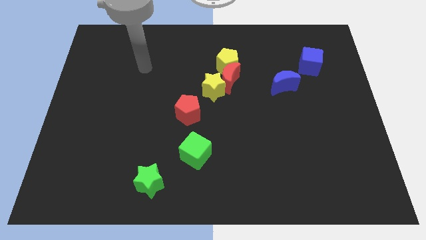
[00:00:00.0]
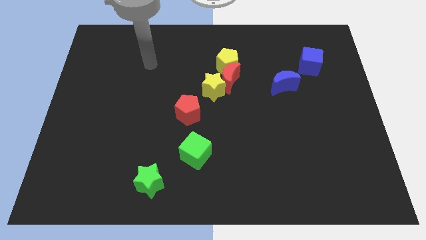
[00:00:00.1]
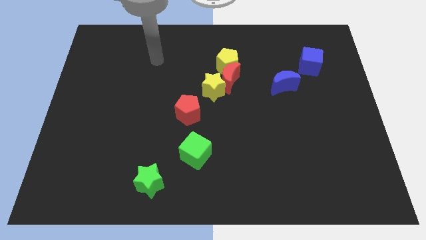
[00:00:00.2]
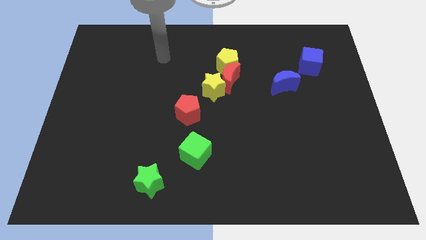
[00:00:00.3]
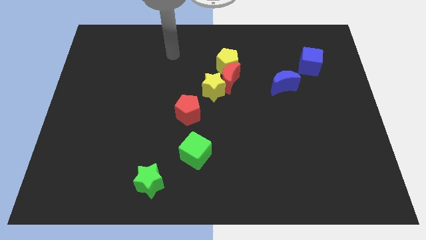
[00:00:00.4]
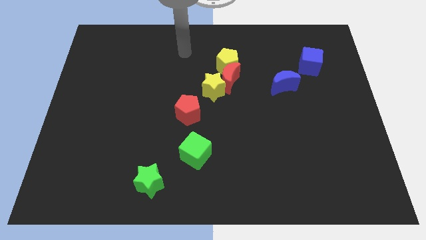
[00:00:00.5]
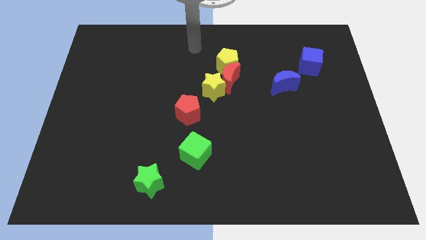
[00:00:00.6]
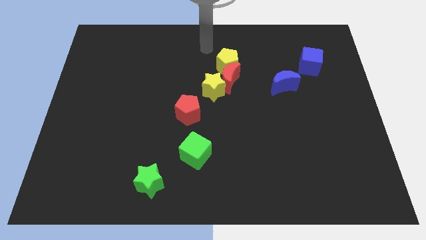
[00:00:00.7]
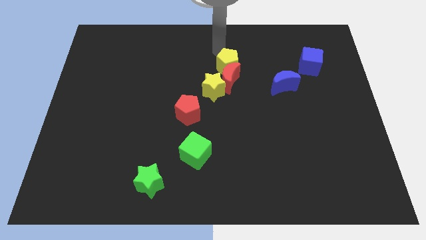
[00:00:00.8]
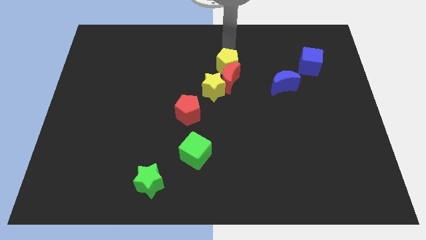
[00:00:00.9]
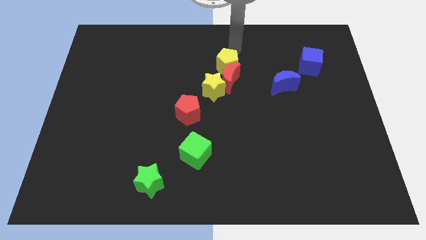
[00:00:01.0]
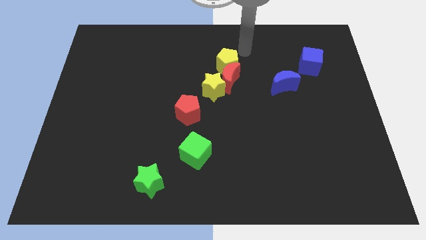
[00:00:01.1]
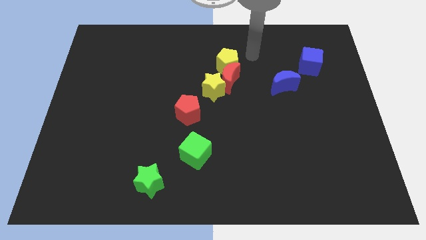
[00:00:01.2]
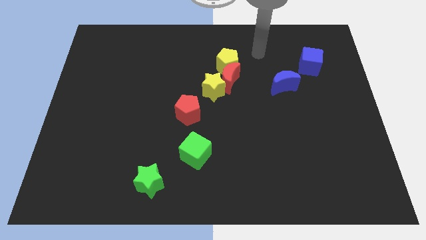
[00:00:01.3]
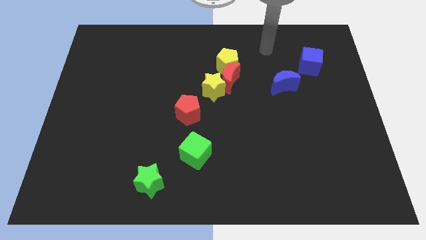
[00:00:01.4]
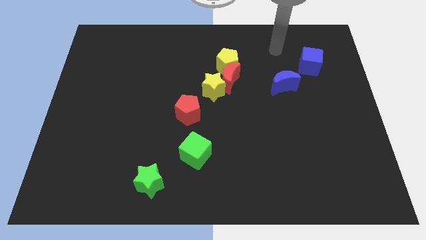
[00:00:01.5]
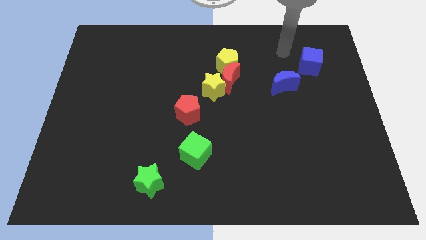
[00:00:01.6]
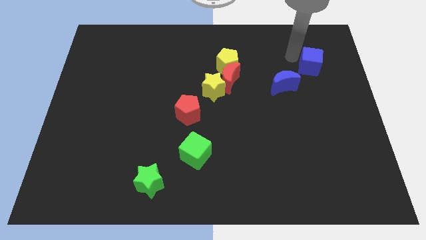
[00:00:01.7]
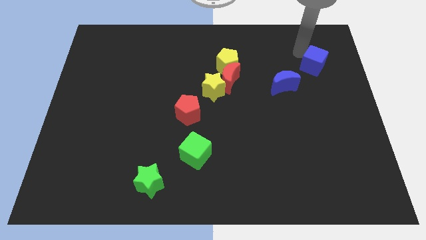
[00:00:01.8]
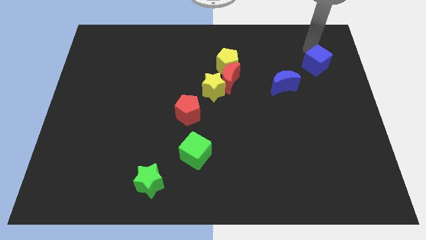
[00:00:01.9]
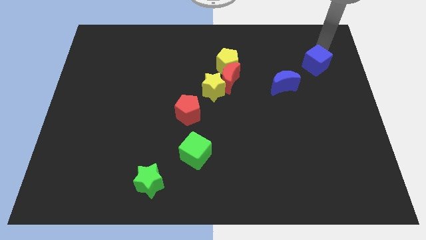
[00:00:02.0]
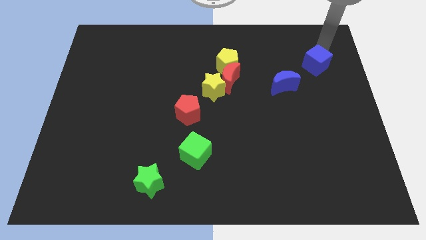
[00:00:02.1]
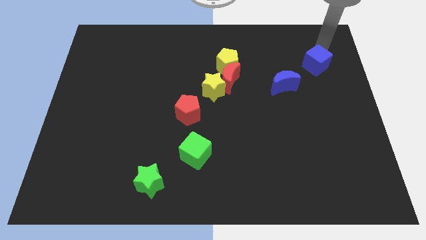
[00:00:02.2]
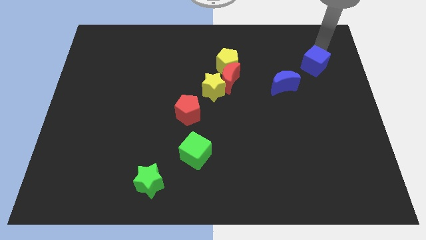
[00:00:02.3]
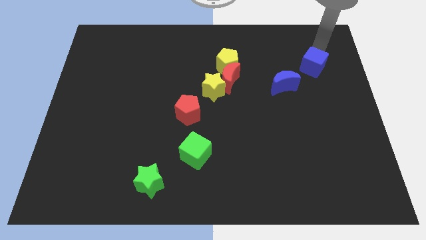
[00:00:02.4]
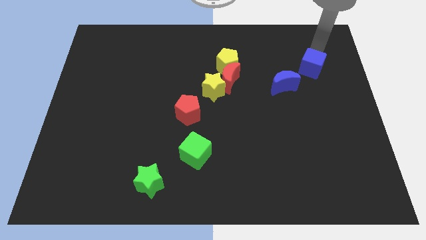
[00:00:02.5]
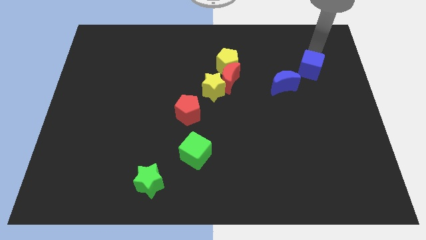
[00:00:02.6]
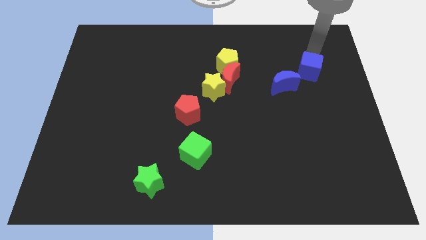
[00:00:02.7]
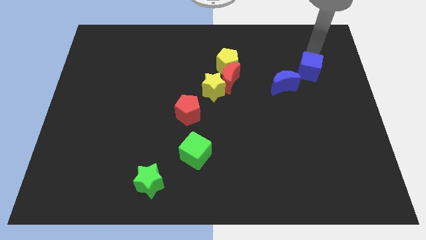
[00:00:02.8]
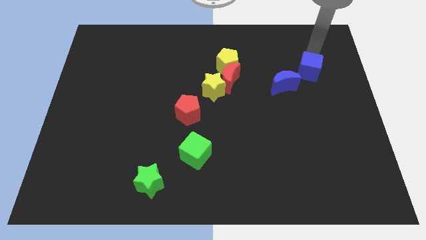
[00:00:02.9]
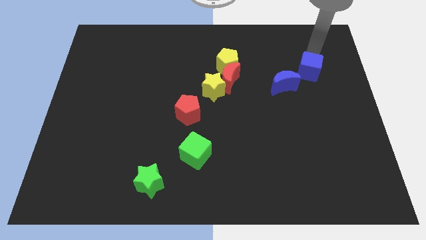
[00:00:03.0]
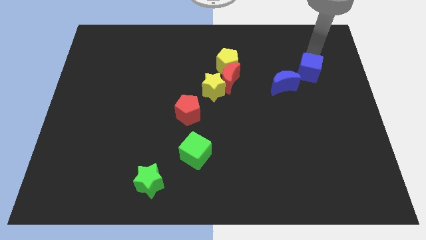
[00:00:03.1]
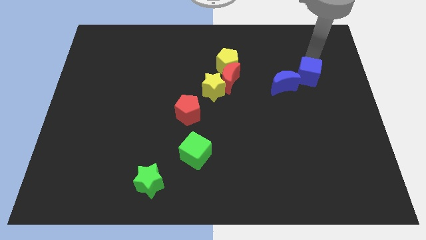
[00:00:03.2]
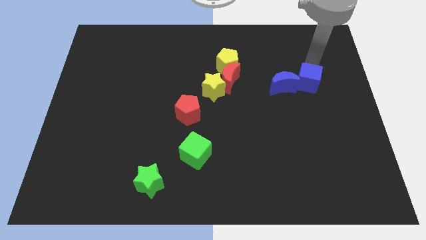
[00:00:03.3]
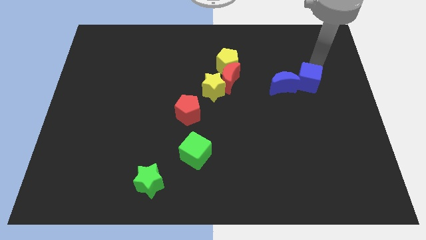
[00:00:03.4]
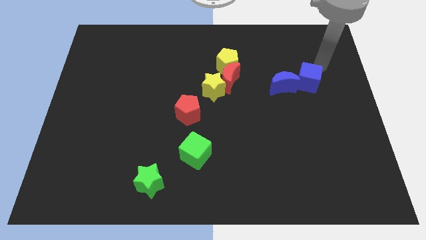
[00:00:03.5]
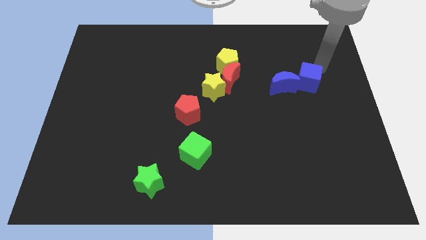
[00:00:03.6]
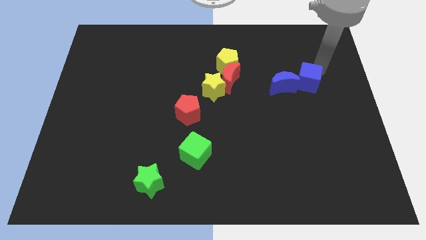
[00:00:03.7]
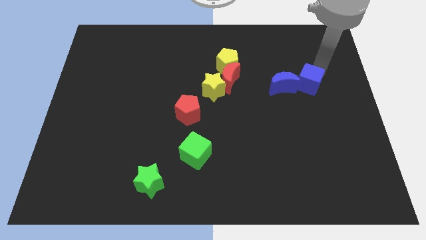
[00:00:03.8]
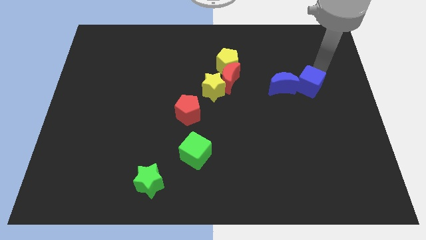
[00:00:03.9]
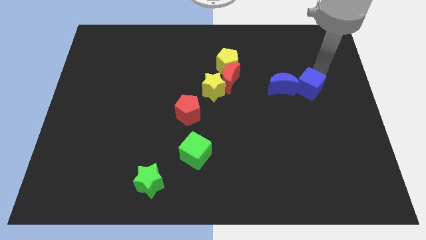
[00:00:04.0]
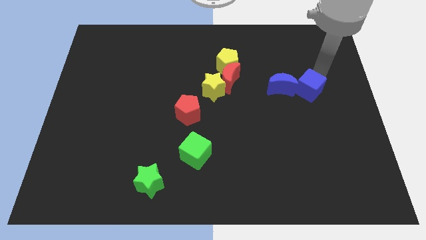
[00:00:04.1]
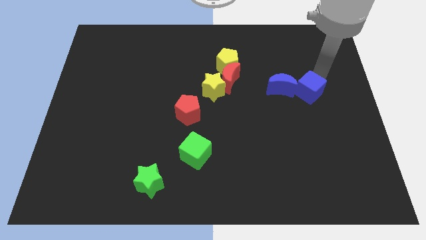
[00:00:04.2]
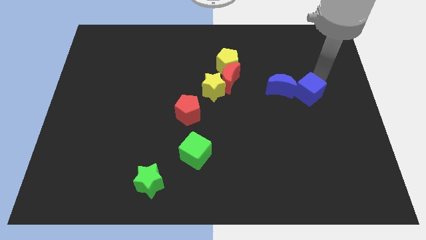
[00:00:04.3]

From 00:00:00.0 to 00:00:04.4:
move the blue cube somewhat down and then left

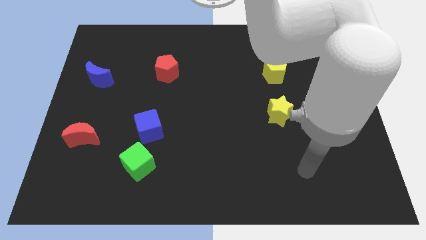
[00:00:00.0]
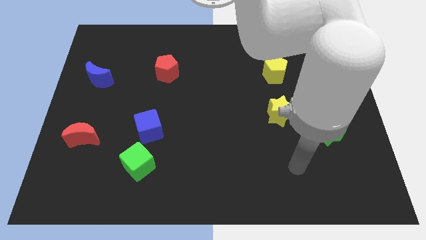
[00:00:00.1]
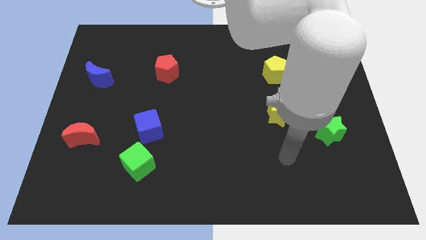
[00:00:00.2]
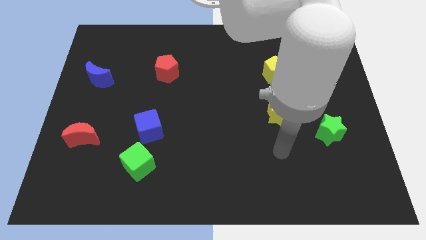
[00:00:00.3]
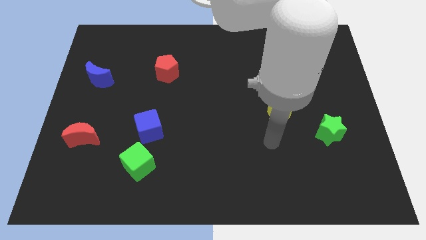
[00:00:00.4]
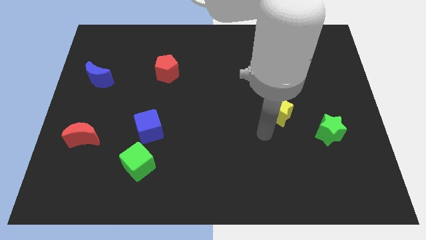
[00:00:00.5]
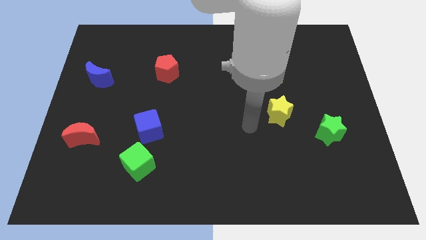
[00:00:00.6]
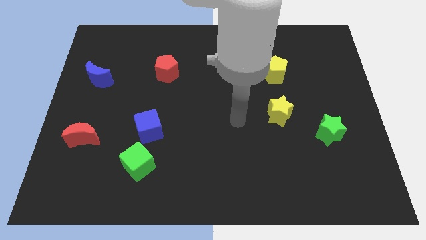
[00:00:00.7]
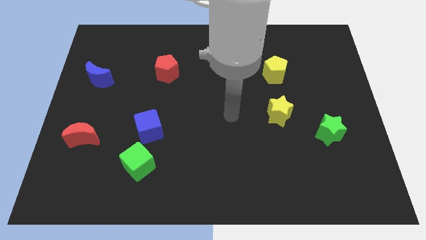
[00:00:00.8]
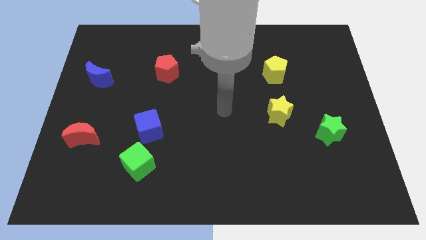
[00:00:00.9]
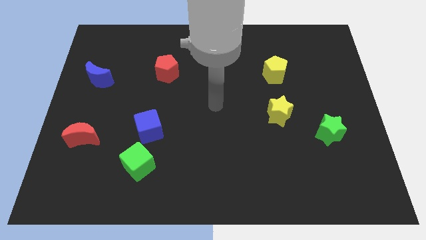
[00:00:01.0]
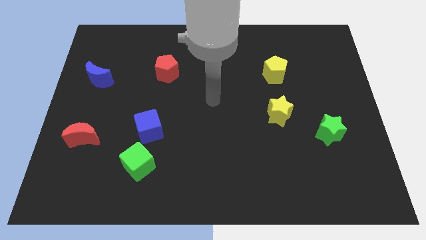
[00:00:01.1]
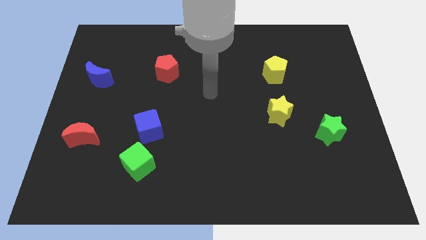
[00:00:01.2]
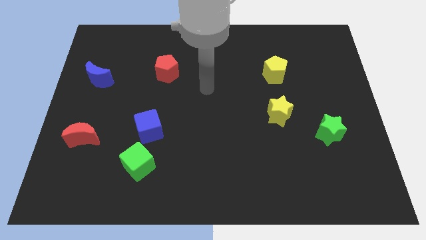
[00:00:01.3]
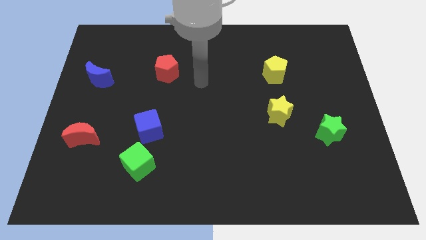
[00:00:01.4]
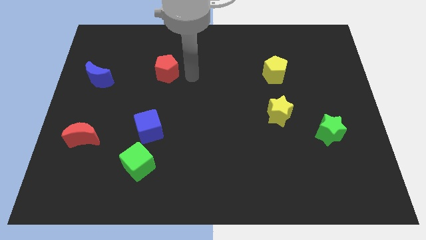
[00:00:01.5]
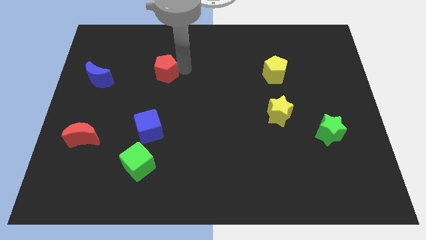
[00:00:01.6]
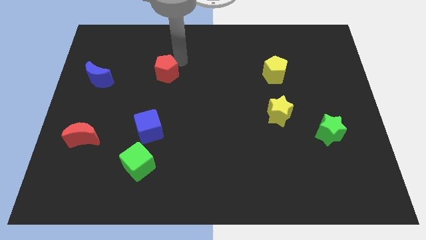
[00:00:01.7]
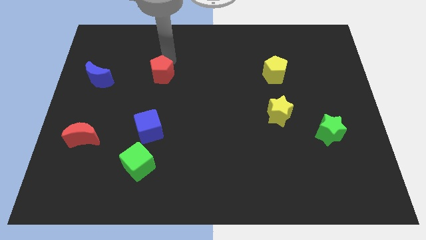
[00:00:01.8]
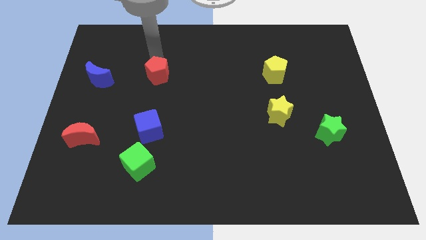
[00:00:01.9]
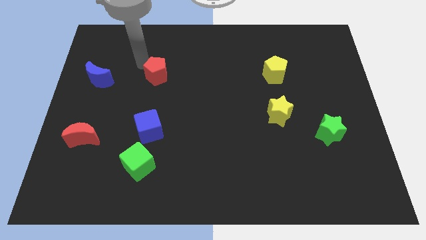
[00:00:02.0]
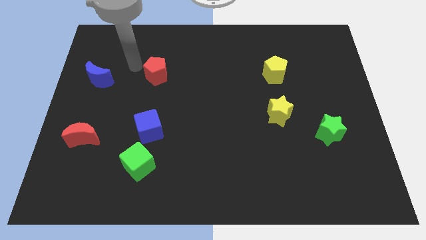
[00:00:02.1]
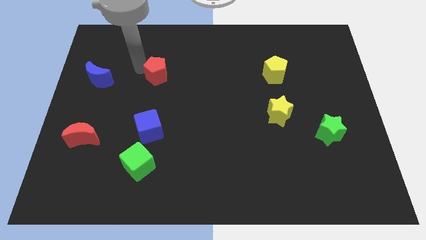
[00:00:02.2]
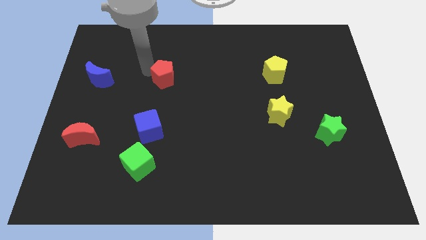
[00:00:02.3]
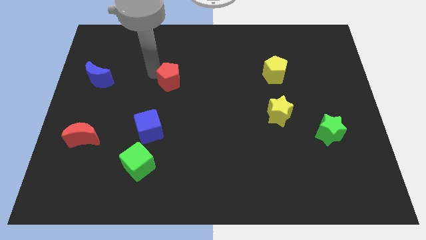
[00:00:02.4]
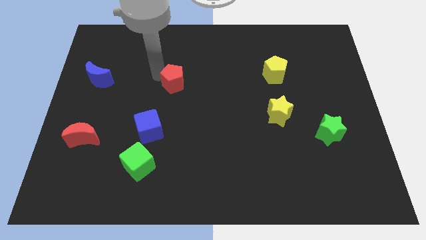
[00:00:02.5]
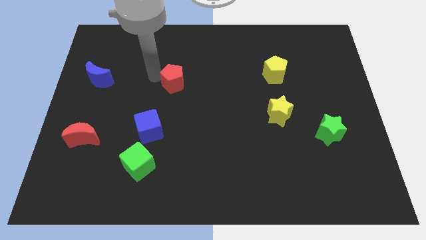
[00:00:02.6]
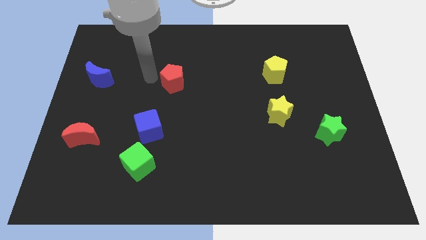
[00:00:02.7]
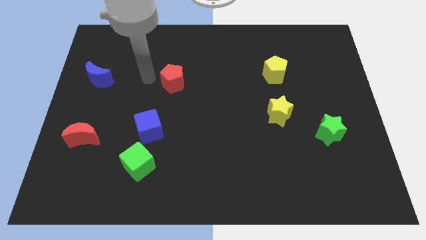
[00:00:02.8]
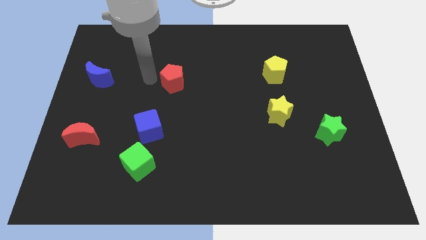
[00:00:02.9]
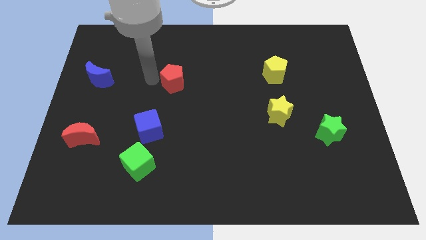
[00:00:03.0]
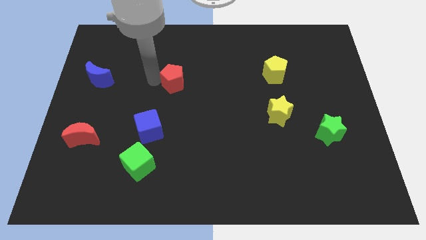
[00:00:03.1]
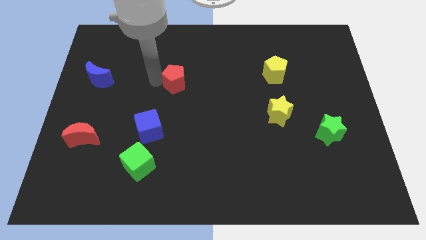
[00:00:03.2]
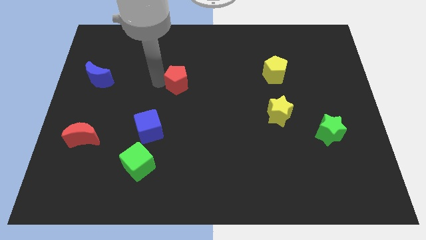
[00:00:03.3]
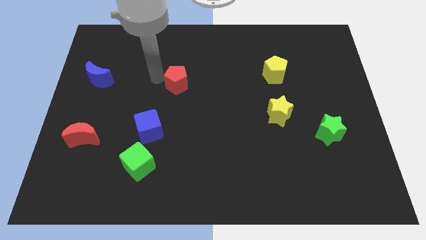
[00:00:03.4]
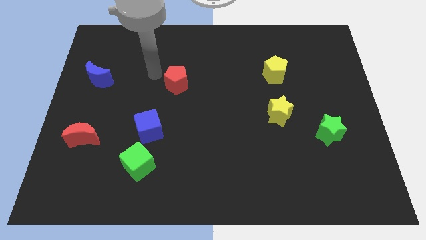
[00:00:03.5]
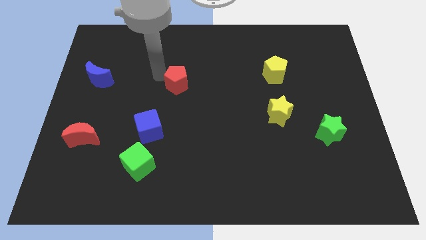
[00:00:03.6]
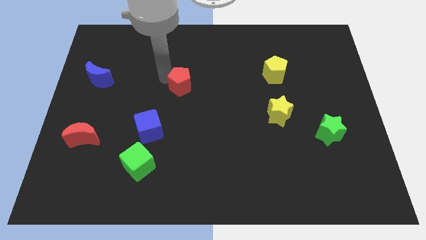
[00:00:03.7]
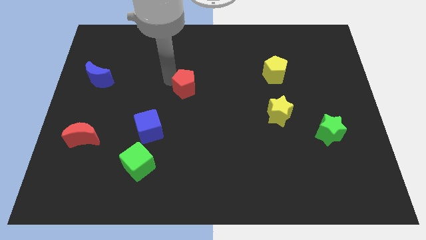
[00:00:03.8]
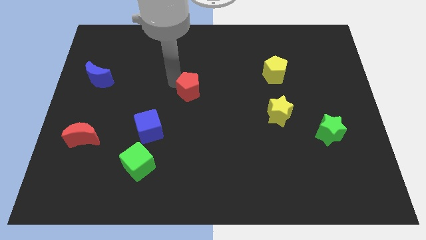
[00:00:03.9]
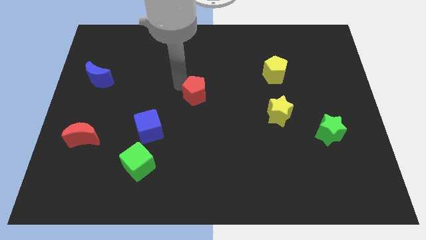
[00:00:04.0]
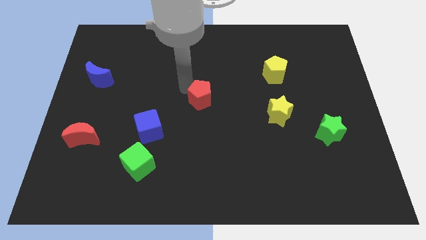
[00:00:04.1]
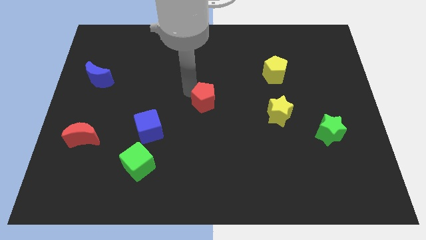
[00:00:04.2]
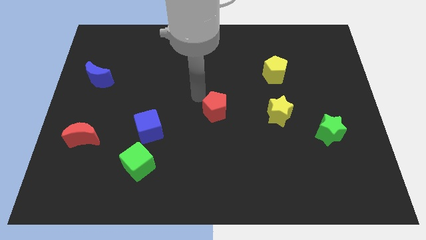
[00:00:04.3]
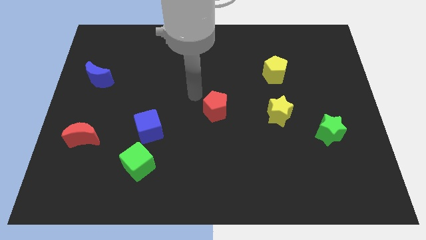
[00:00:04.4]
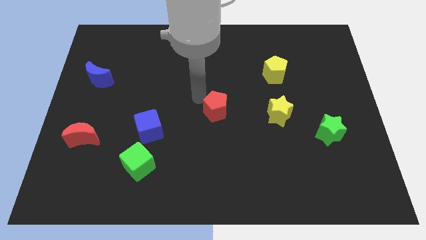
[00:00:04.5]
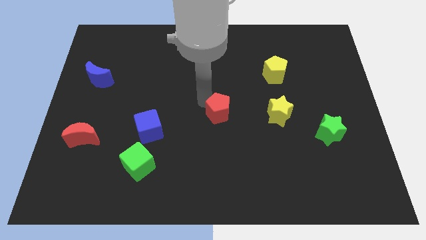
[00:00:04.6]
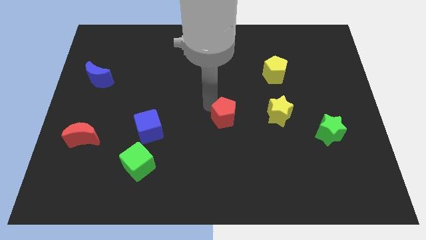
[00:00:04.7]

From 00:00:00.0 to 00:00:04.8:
push the red pentagon diagonally down and right
